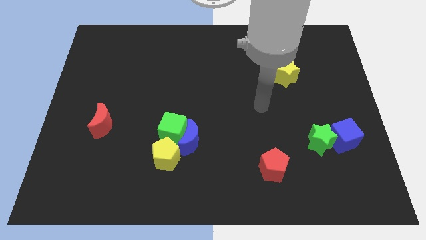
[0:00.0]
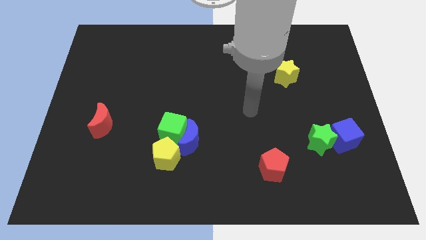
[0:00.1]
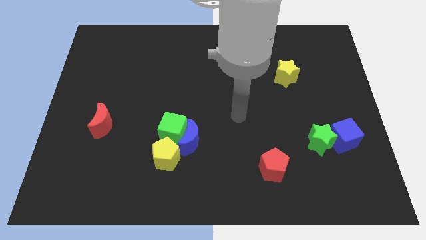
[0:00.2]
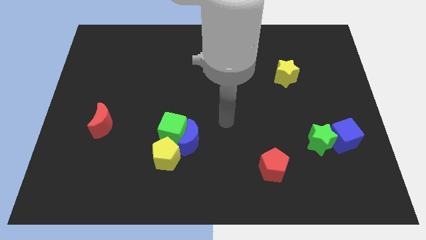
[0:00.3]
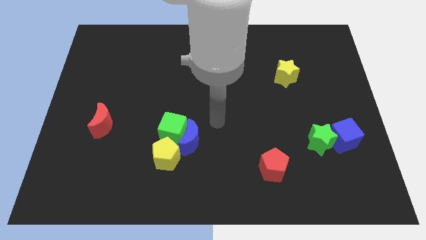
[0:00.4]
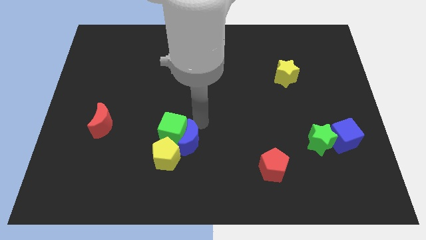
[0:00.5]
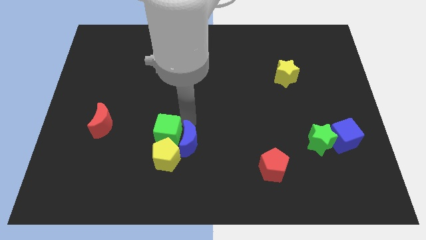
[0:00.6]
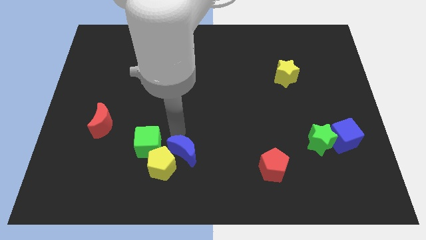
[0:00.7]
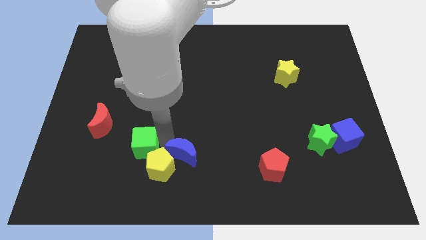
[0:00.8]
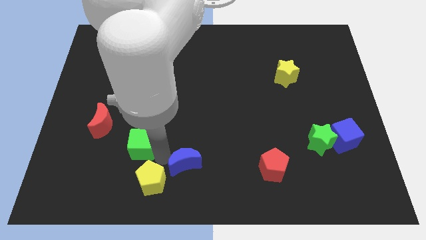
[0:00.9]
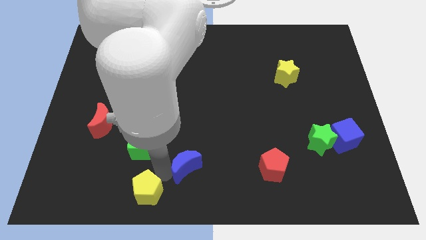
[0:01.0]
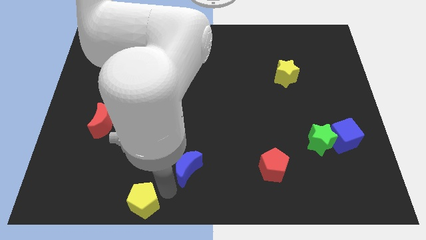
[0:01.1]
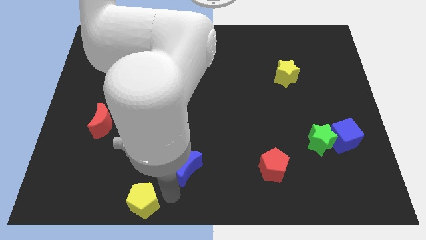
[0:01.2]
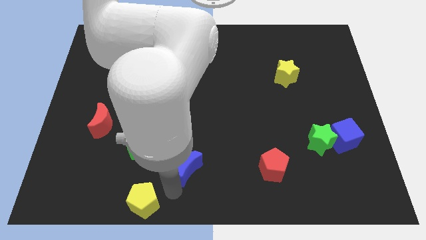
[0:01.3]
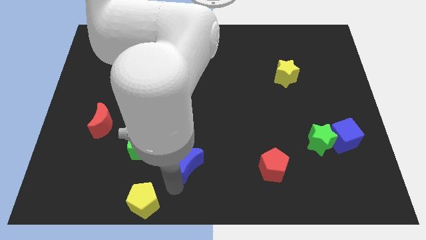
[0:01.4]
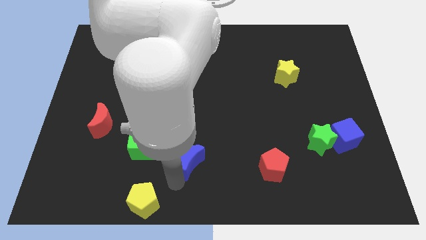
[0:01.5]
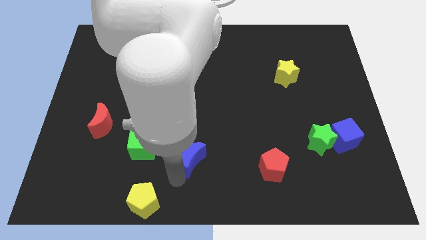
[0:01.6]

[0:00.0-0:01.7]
move the blue moon away from the green cube and yellow pentagon

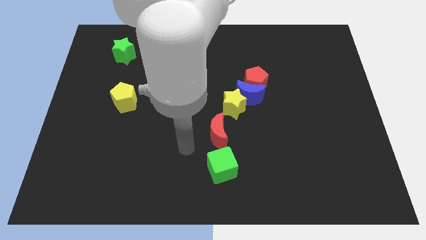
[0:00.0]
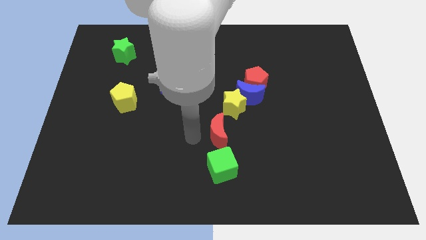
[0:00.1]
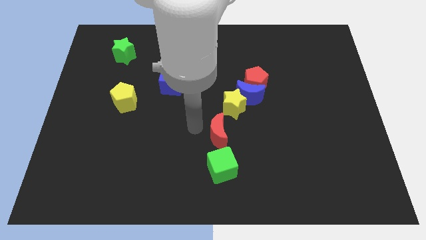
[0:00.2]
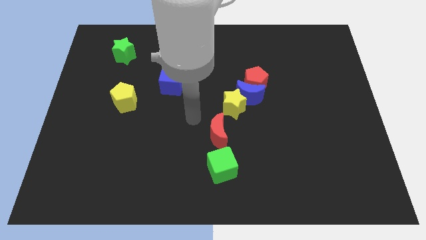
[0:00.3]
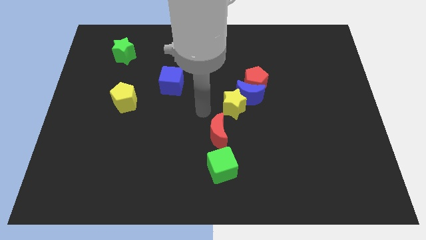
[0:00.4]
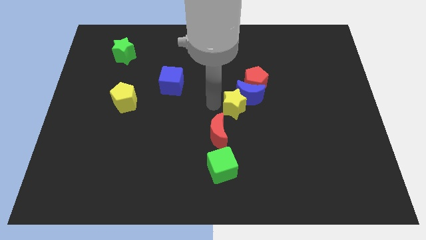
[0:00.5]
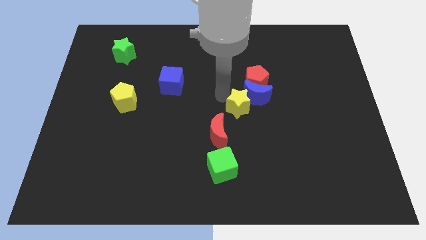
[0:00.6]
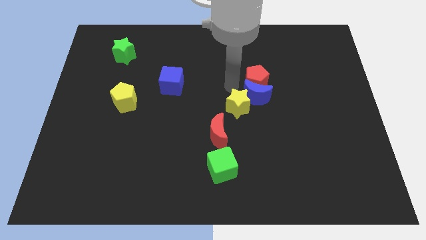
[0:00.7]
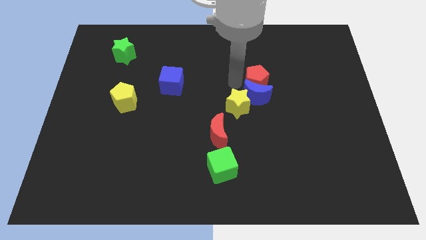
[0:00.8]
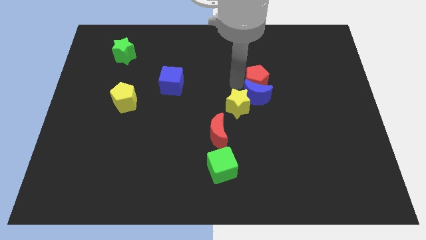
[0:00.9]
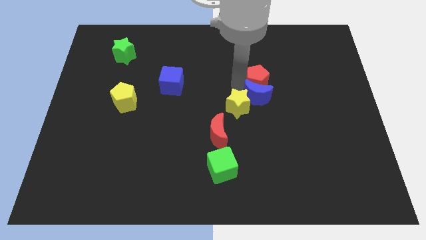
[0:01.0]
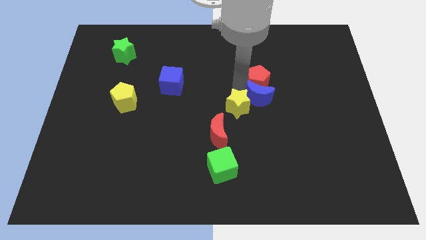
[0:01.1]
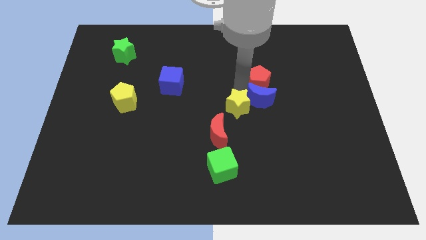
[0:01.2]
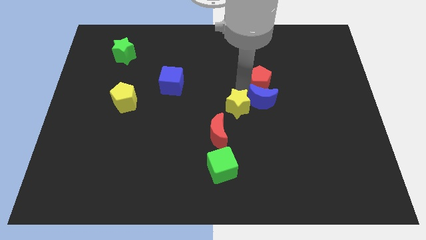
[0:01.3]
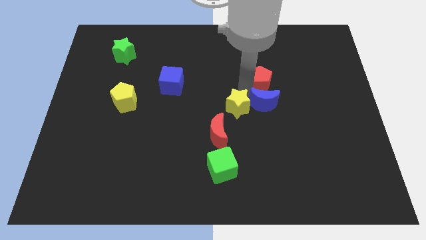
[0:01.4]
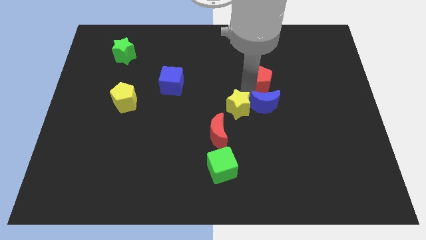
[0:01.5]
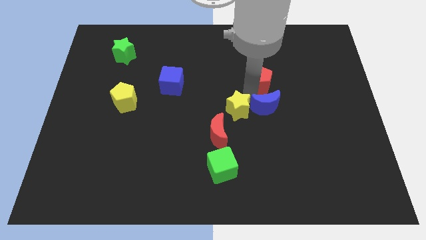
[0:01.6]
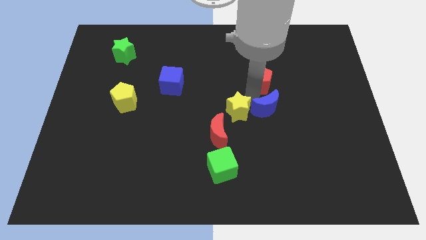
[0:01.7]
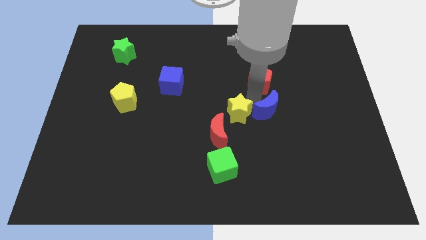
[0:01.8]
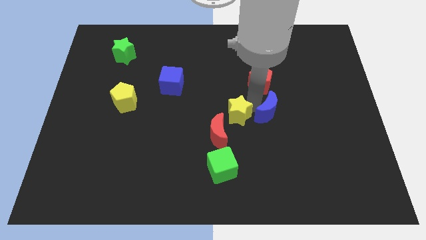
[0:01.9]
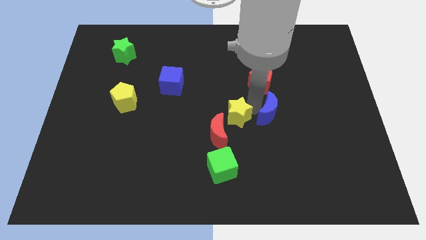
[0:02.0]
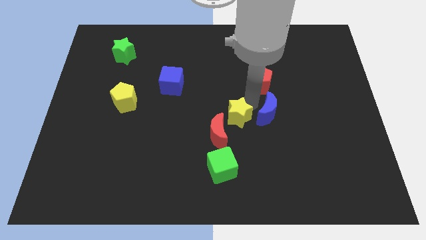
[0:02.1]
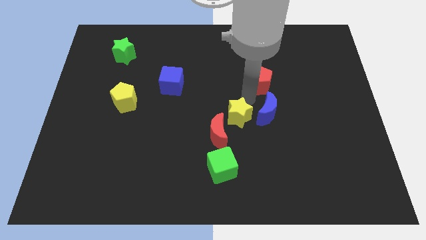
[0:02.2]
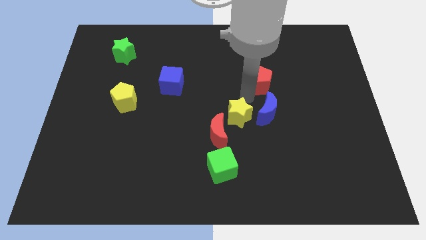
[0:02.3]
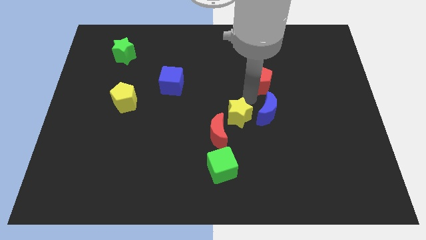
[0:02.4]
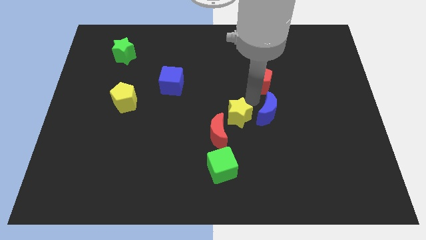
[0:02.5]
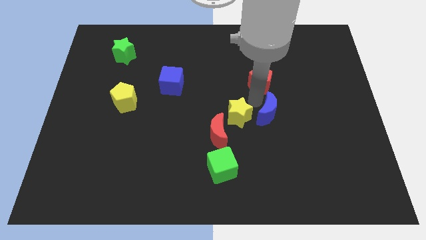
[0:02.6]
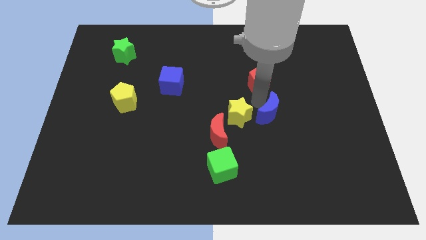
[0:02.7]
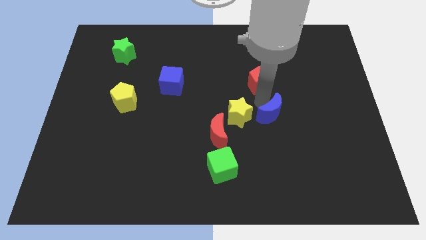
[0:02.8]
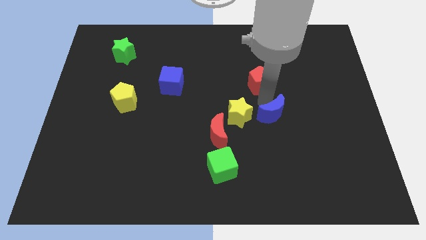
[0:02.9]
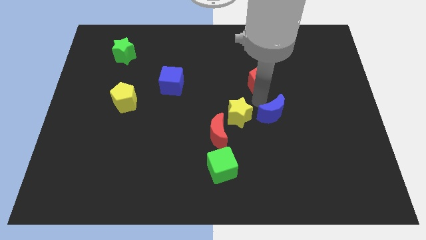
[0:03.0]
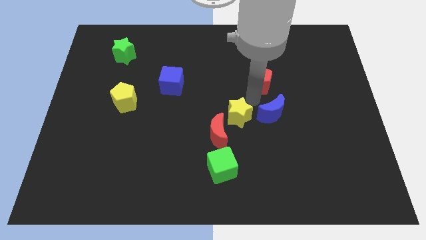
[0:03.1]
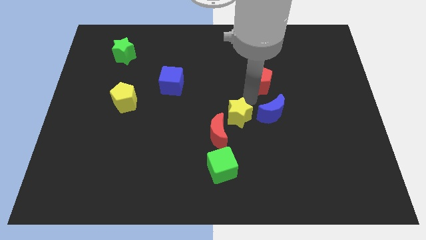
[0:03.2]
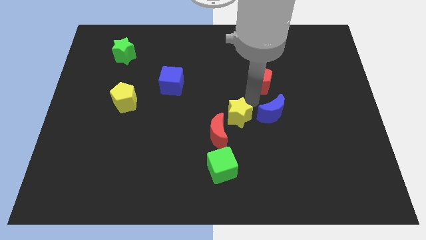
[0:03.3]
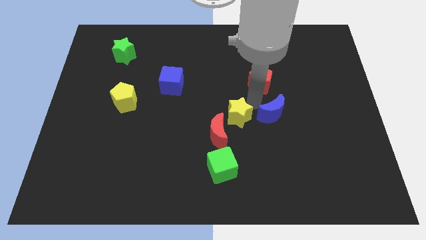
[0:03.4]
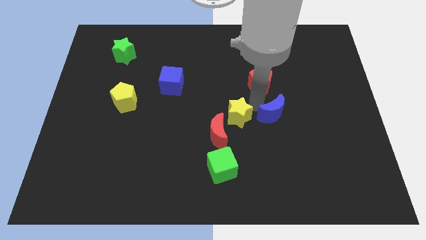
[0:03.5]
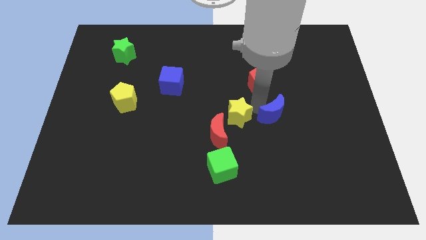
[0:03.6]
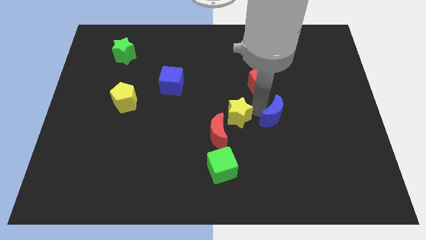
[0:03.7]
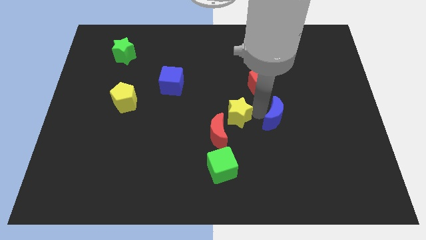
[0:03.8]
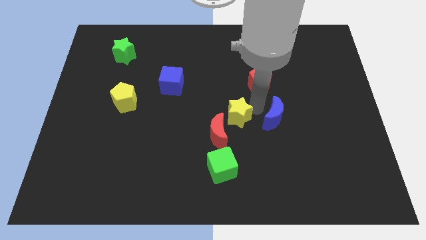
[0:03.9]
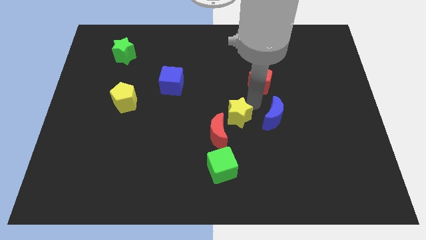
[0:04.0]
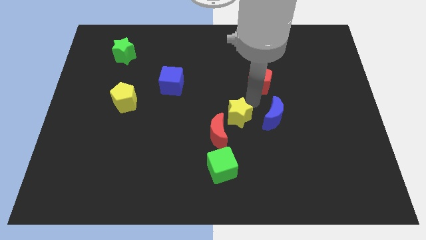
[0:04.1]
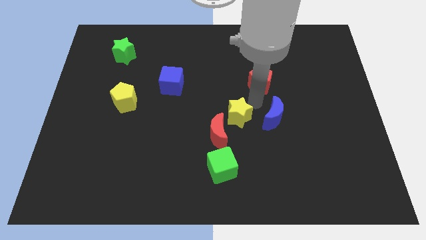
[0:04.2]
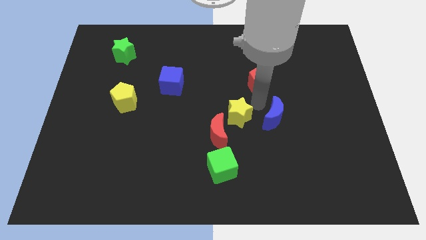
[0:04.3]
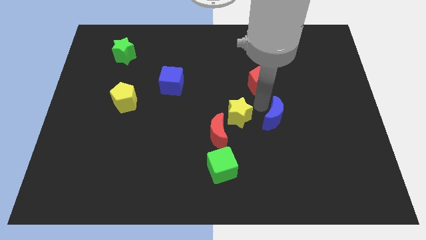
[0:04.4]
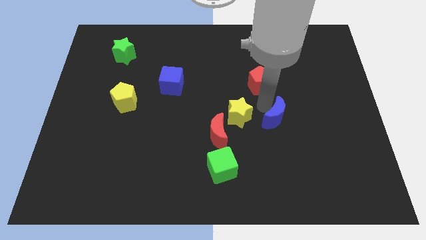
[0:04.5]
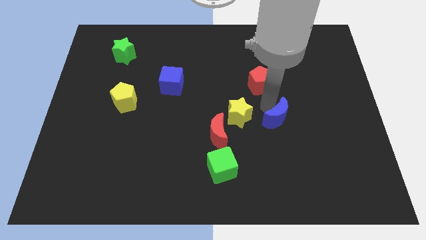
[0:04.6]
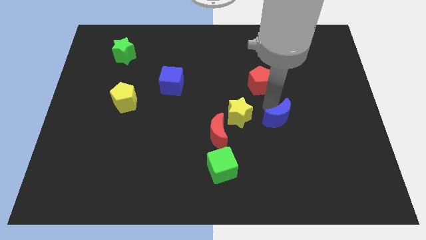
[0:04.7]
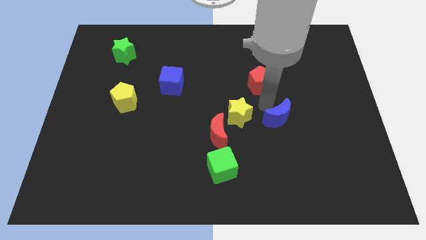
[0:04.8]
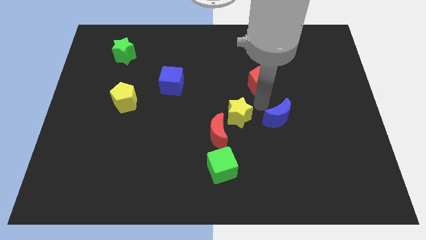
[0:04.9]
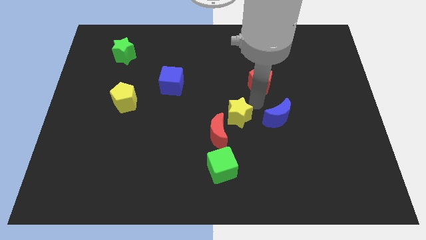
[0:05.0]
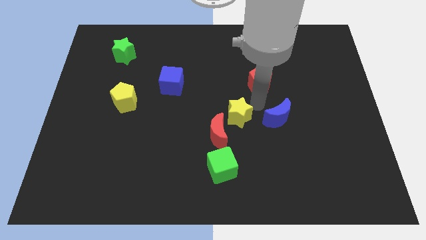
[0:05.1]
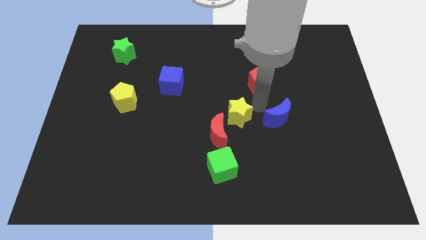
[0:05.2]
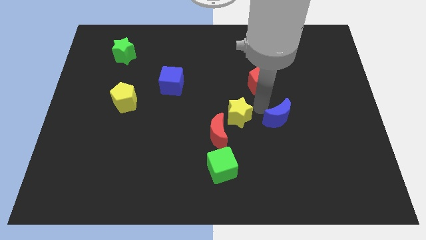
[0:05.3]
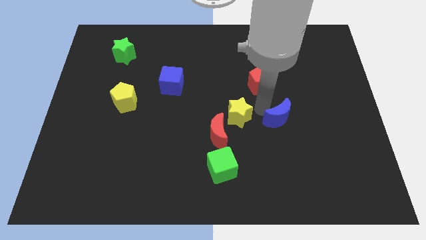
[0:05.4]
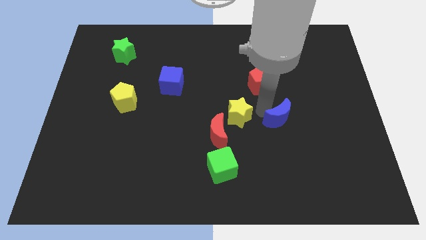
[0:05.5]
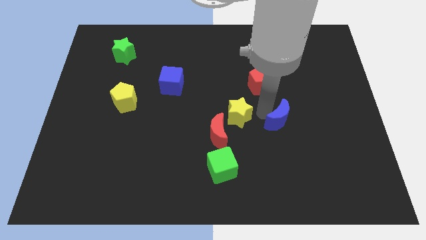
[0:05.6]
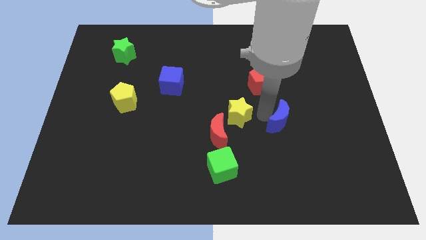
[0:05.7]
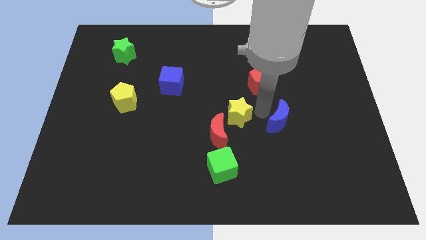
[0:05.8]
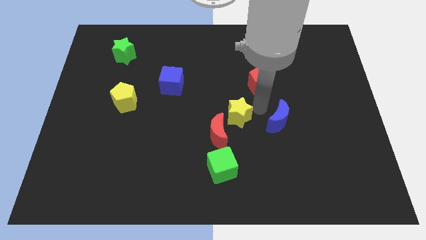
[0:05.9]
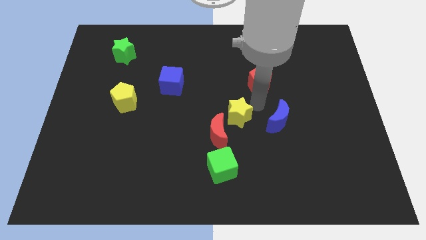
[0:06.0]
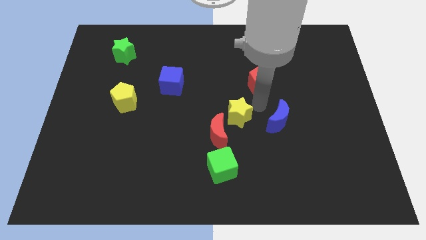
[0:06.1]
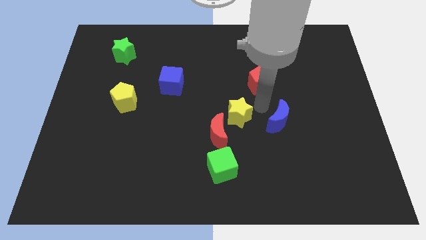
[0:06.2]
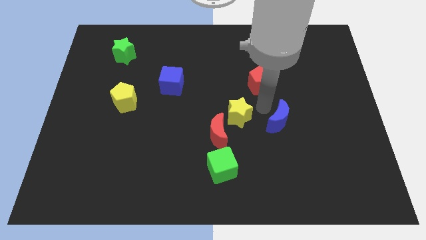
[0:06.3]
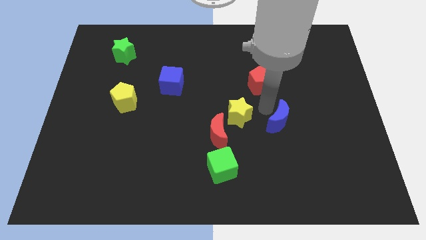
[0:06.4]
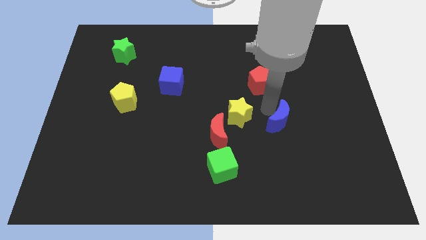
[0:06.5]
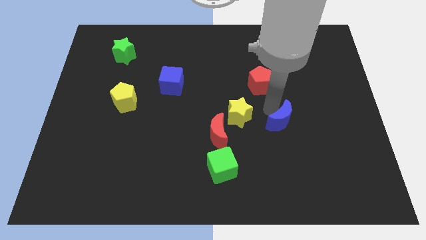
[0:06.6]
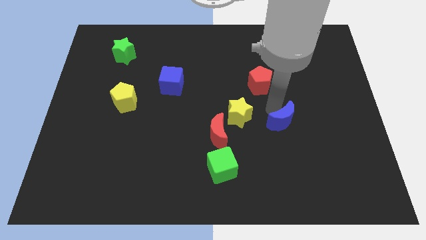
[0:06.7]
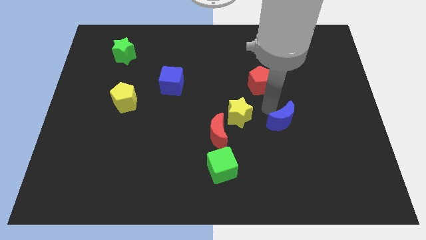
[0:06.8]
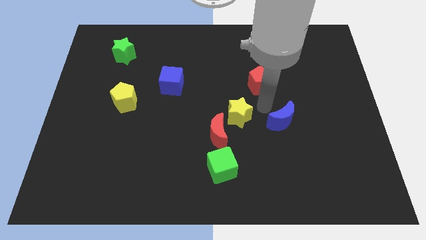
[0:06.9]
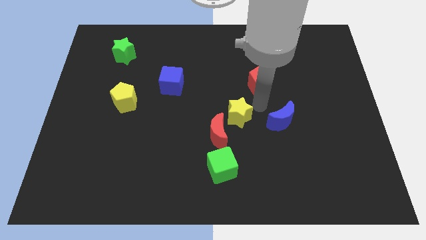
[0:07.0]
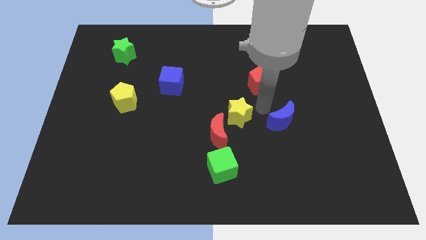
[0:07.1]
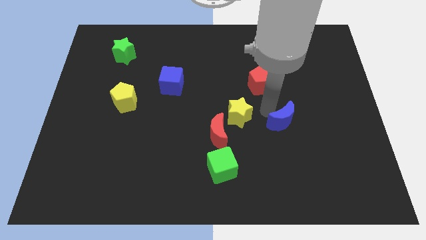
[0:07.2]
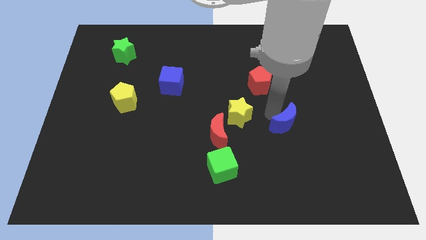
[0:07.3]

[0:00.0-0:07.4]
move the blue moon away from the red pentagon and yellow star

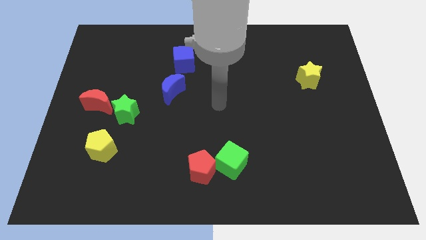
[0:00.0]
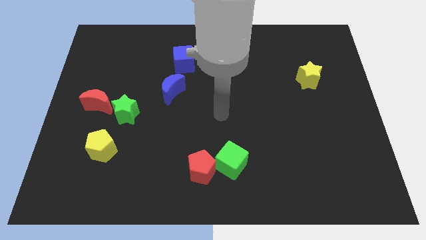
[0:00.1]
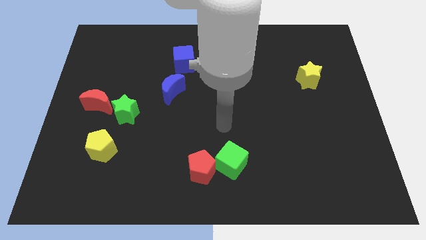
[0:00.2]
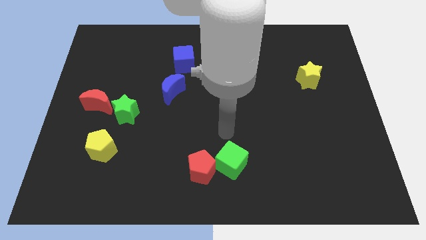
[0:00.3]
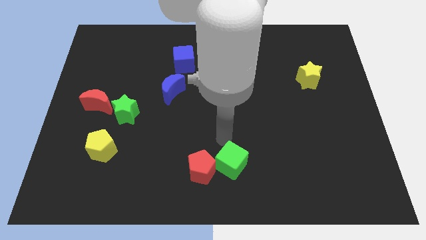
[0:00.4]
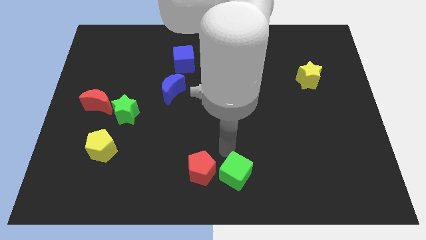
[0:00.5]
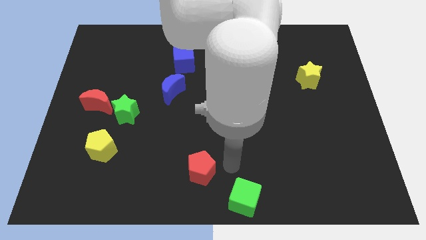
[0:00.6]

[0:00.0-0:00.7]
pull the red pentagon apart from the green cube
